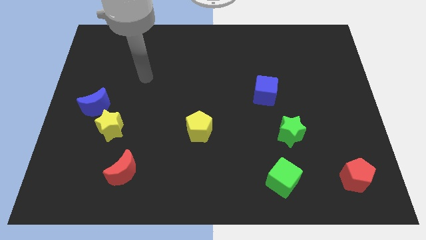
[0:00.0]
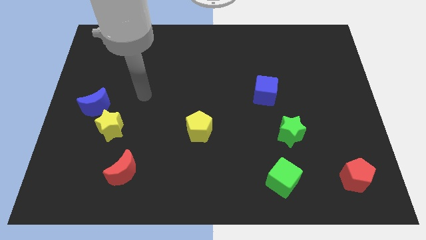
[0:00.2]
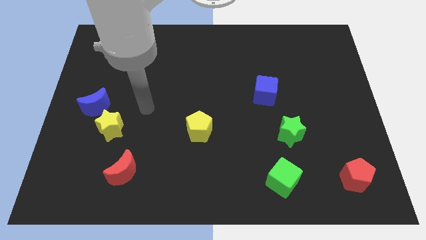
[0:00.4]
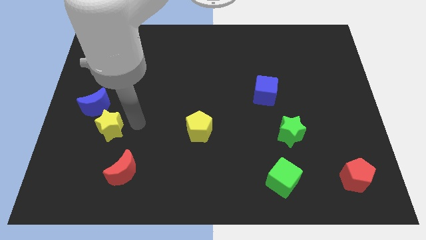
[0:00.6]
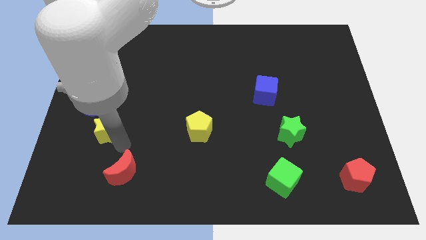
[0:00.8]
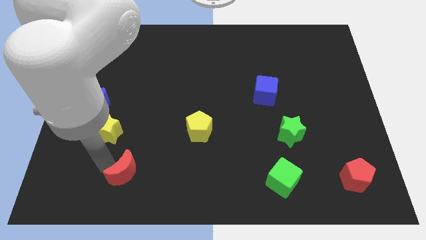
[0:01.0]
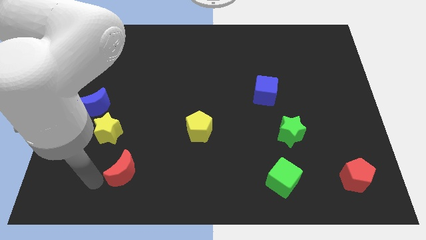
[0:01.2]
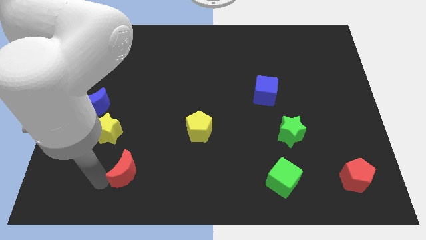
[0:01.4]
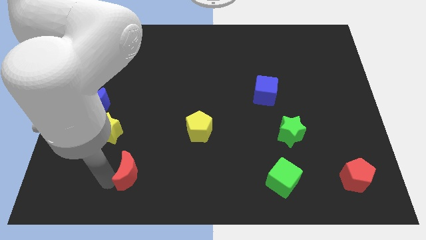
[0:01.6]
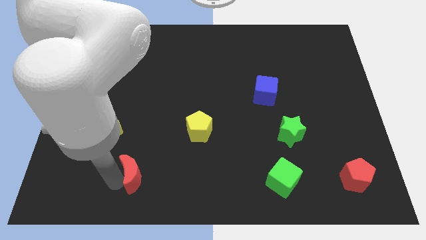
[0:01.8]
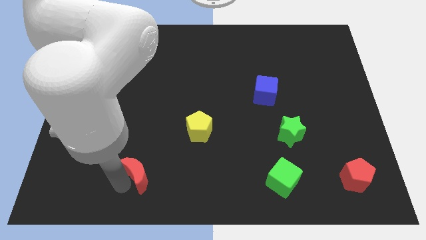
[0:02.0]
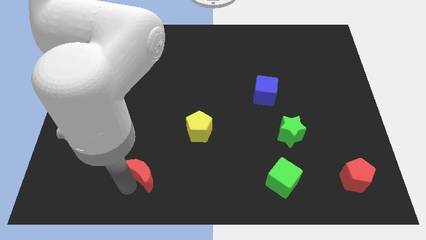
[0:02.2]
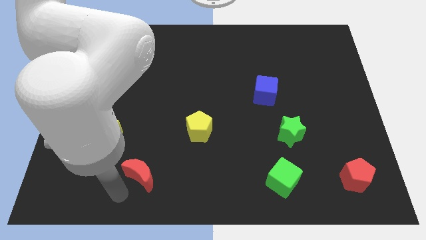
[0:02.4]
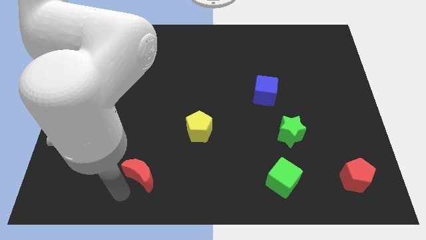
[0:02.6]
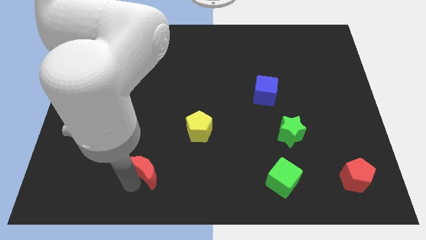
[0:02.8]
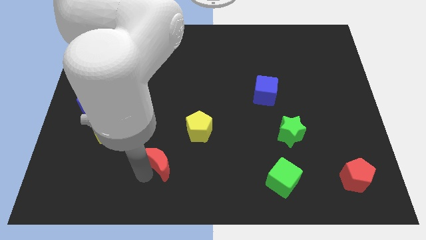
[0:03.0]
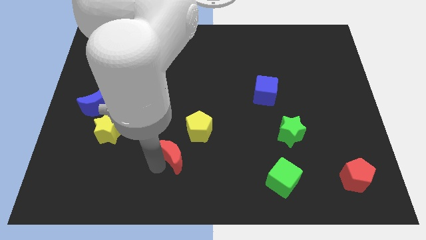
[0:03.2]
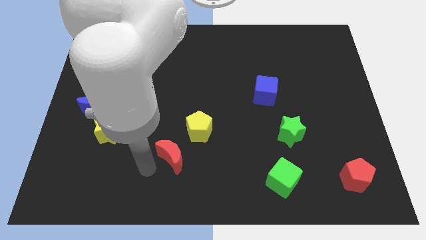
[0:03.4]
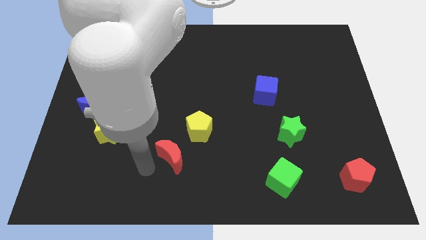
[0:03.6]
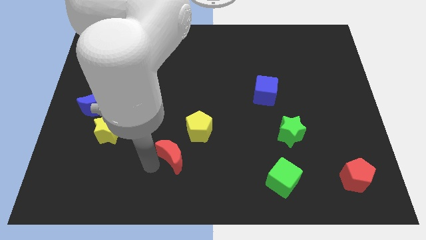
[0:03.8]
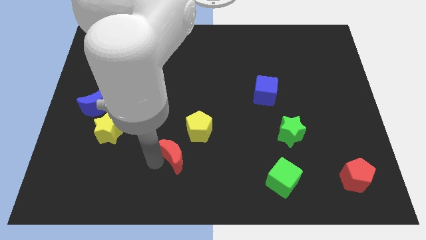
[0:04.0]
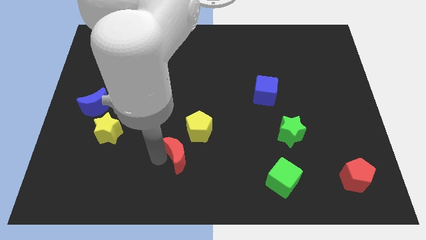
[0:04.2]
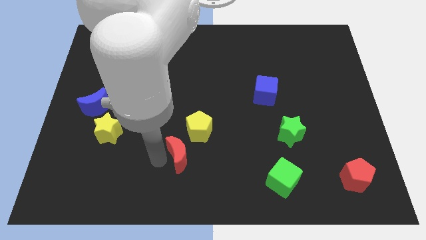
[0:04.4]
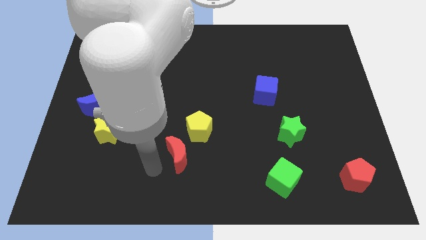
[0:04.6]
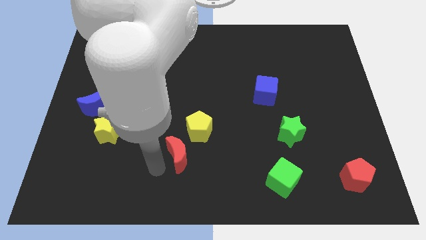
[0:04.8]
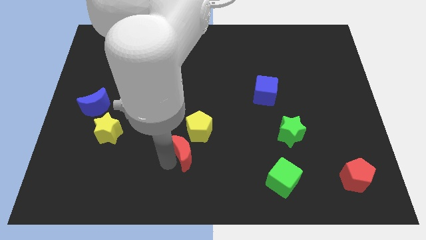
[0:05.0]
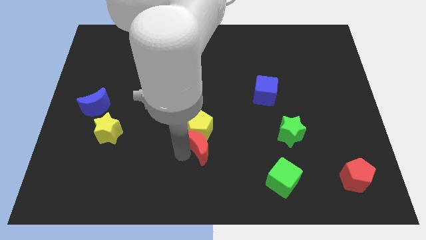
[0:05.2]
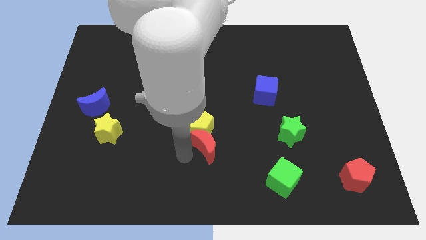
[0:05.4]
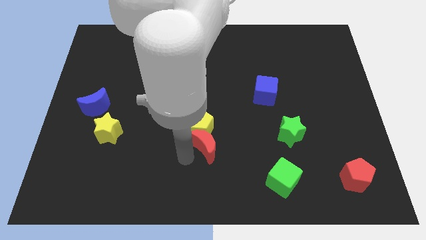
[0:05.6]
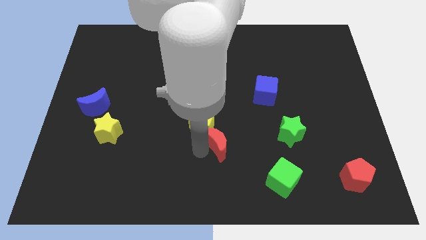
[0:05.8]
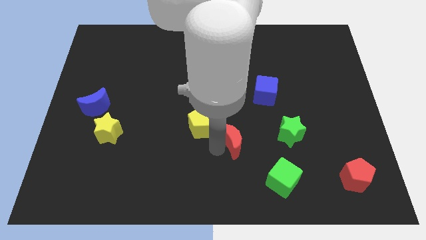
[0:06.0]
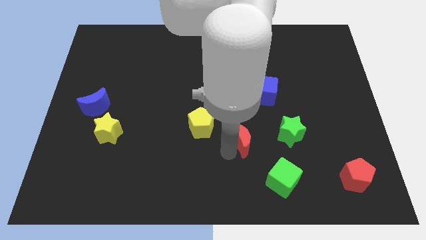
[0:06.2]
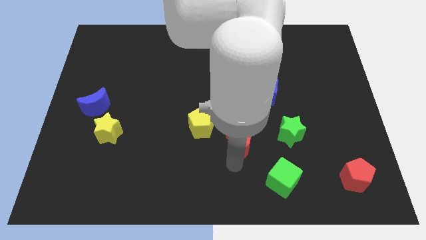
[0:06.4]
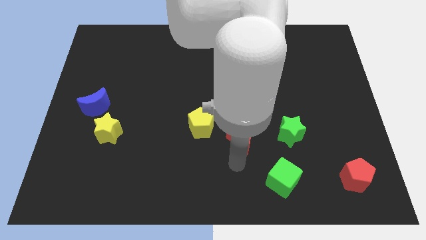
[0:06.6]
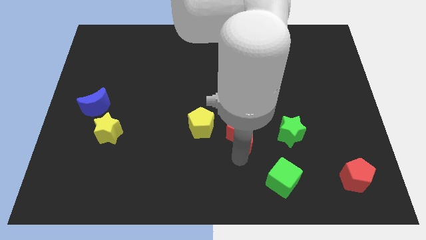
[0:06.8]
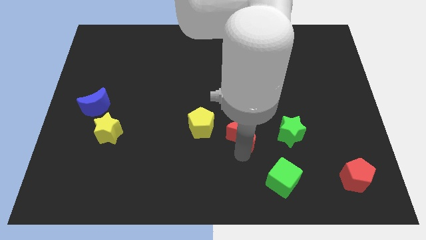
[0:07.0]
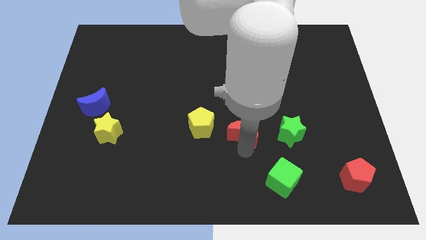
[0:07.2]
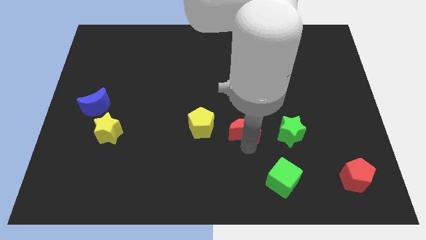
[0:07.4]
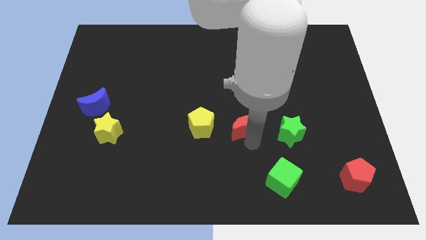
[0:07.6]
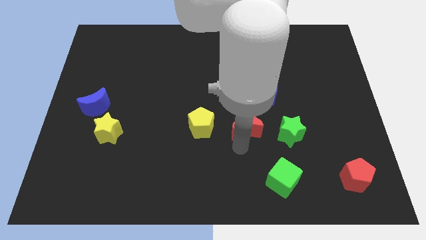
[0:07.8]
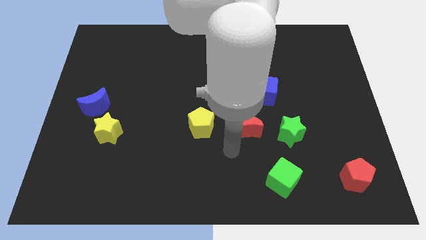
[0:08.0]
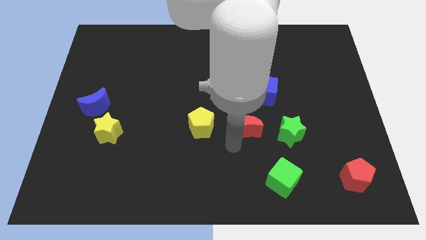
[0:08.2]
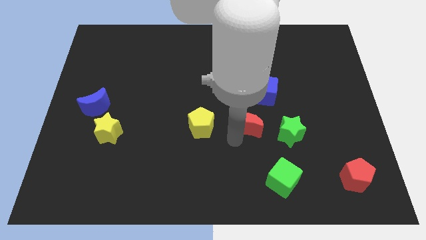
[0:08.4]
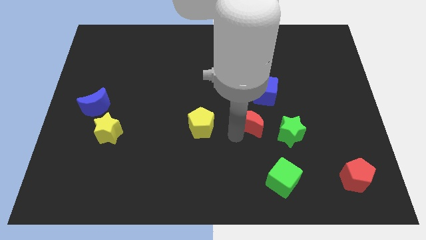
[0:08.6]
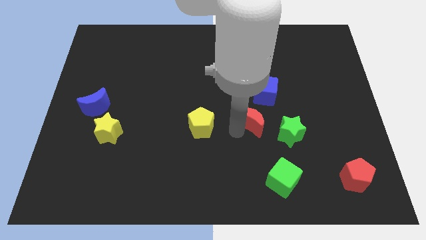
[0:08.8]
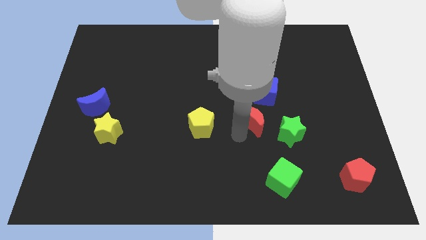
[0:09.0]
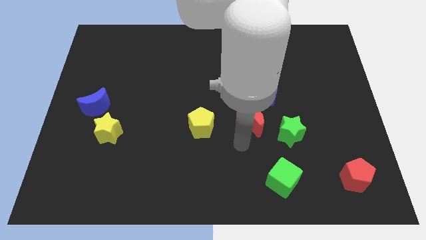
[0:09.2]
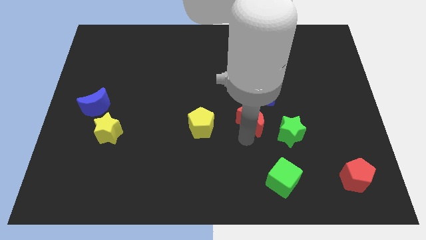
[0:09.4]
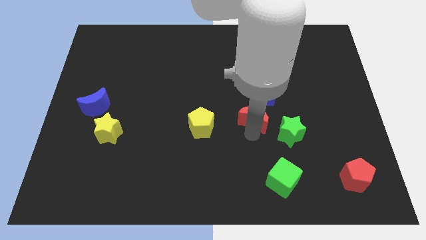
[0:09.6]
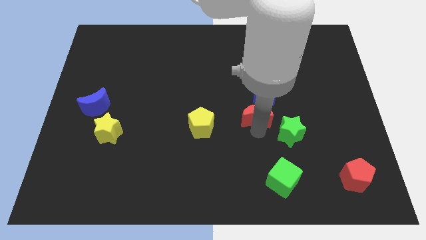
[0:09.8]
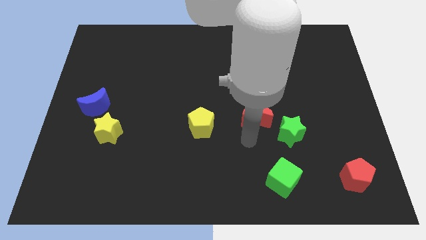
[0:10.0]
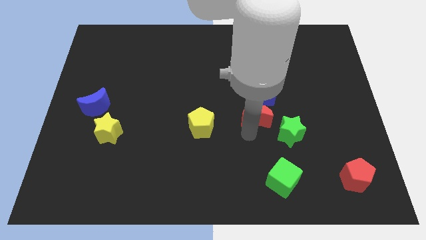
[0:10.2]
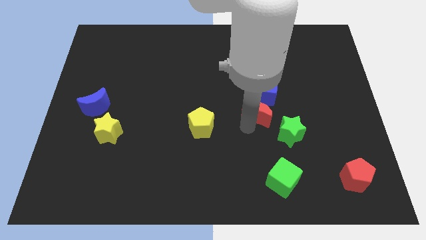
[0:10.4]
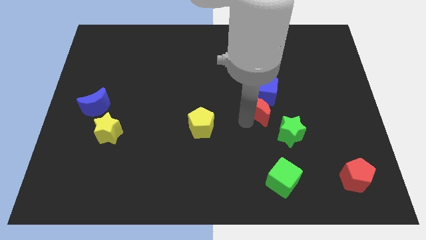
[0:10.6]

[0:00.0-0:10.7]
put the red moon to the blue cube

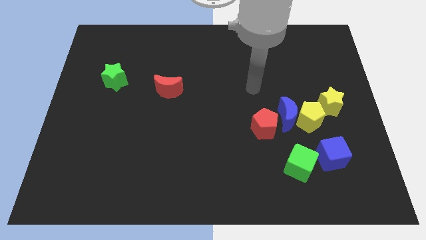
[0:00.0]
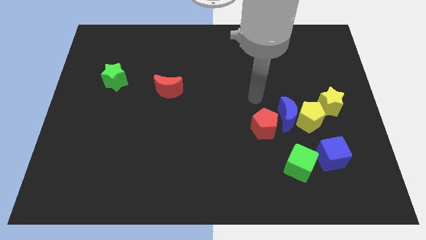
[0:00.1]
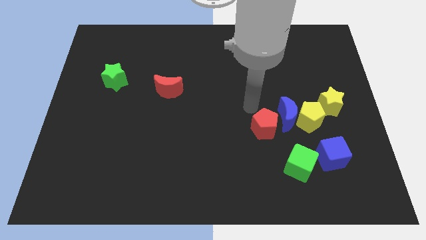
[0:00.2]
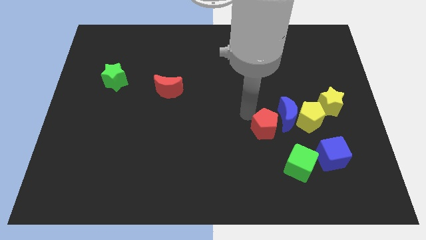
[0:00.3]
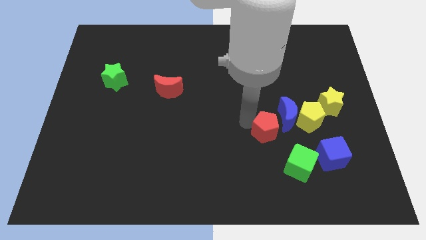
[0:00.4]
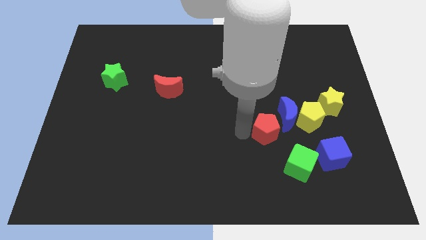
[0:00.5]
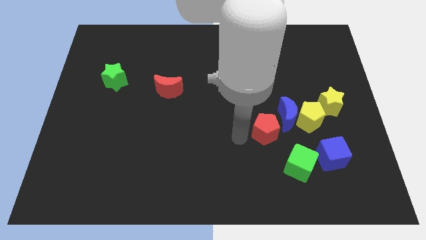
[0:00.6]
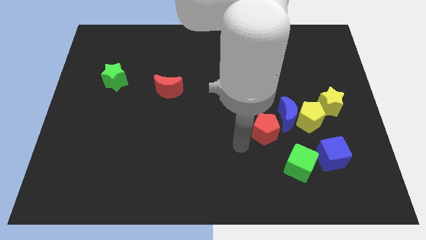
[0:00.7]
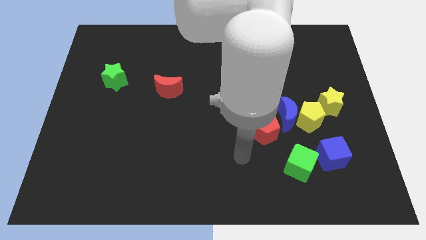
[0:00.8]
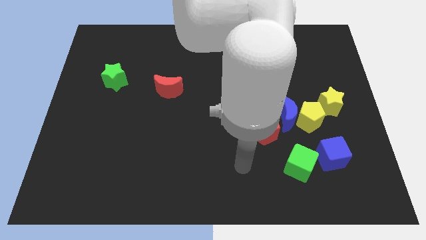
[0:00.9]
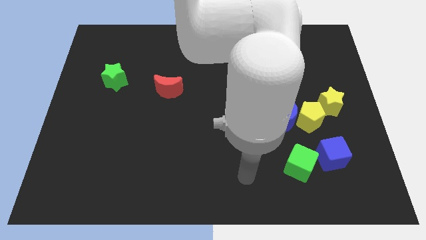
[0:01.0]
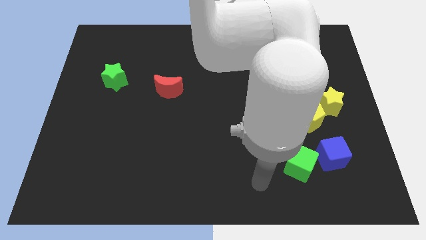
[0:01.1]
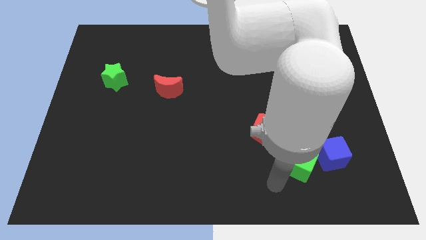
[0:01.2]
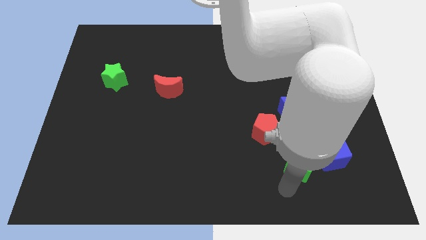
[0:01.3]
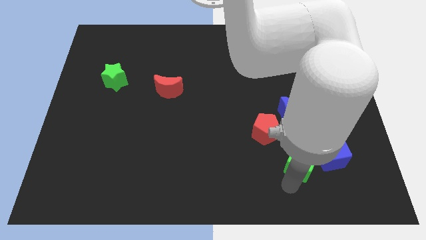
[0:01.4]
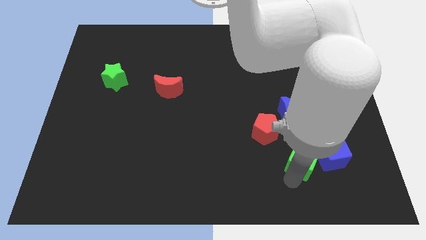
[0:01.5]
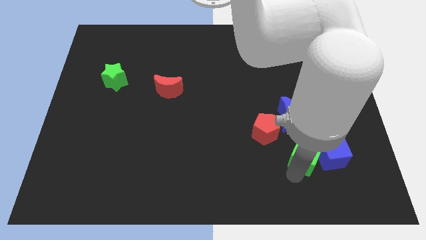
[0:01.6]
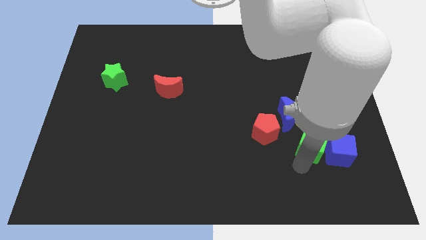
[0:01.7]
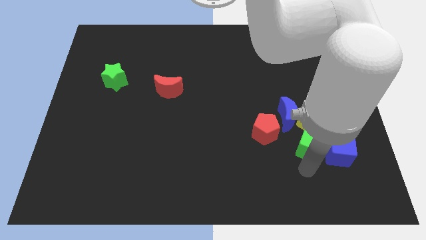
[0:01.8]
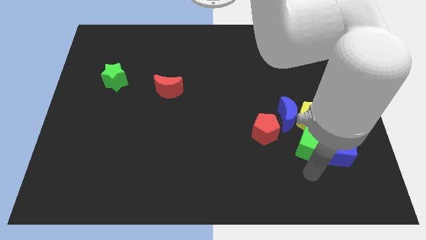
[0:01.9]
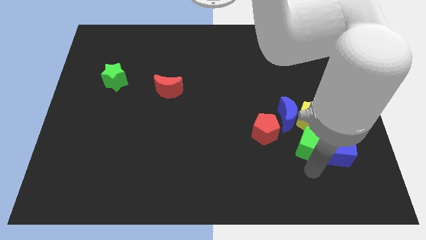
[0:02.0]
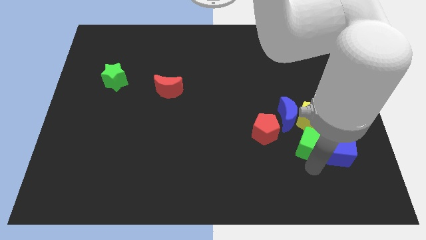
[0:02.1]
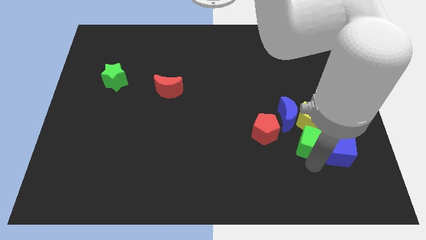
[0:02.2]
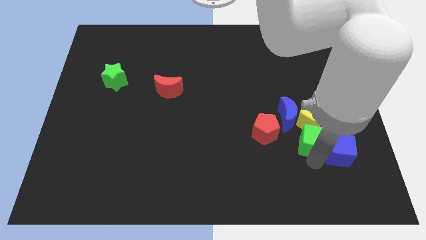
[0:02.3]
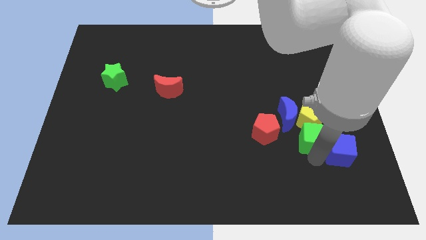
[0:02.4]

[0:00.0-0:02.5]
put the green cube towards the yellow pentagon
